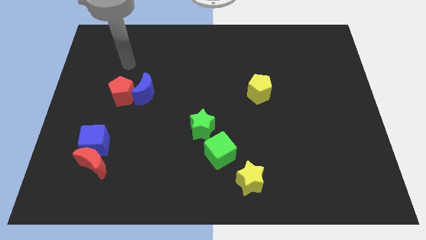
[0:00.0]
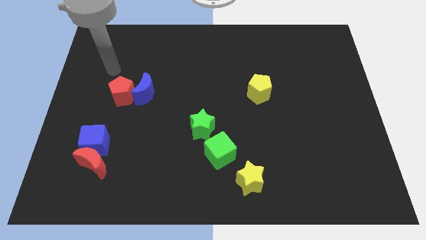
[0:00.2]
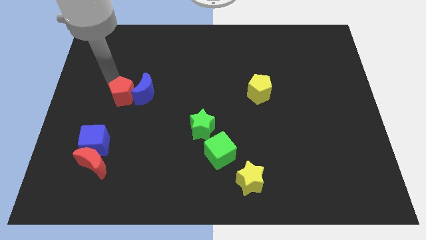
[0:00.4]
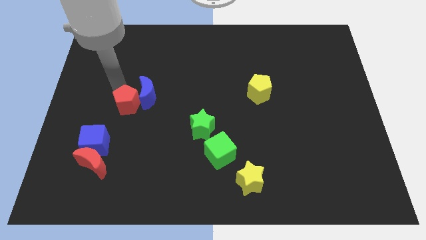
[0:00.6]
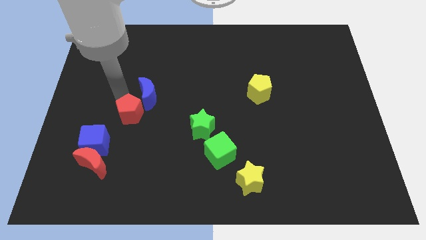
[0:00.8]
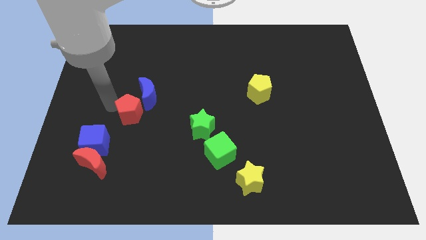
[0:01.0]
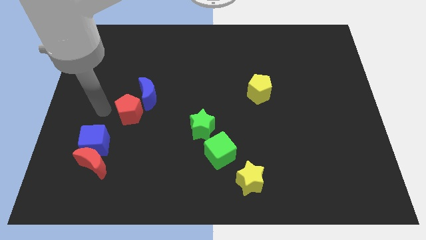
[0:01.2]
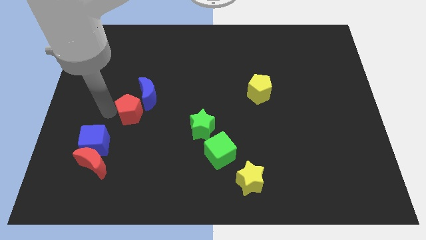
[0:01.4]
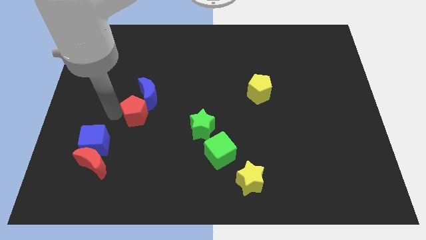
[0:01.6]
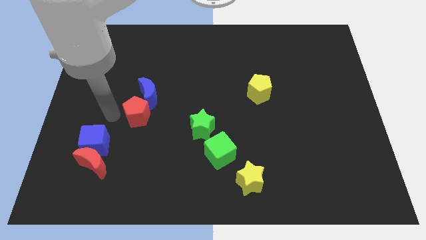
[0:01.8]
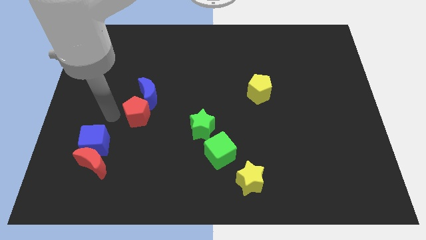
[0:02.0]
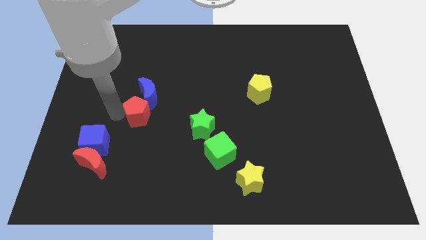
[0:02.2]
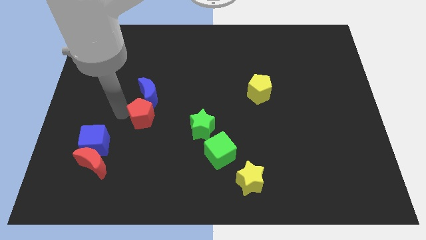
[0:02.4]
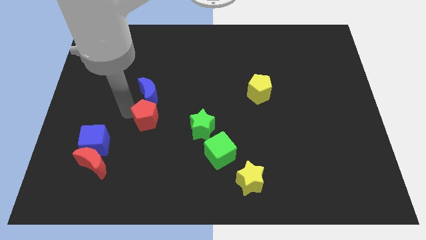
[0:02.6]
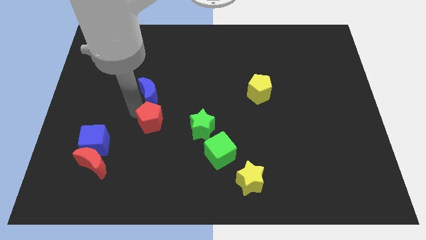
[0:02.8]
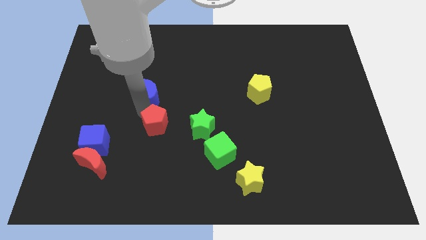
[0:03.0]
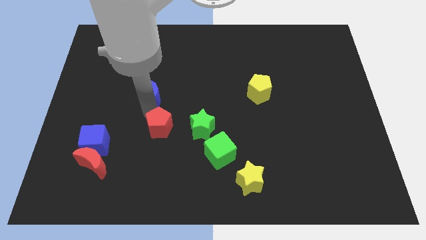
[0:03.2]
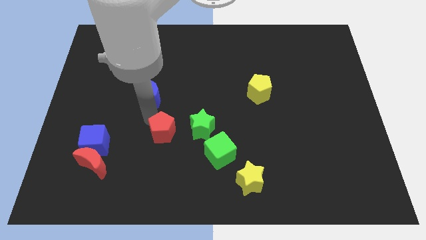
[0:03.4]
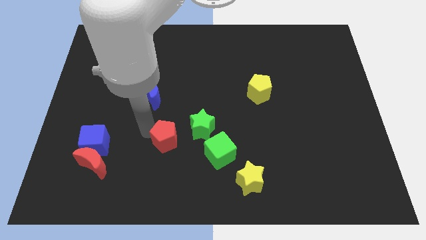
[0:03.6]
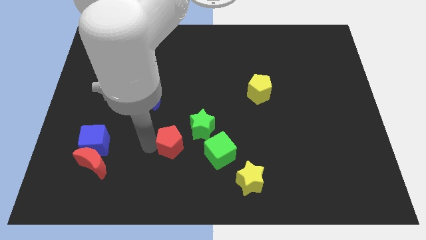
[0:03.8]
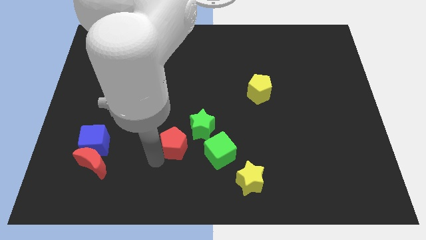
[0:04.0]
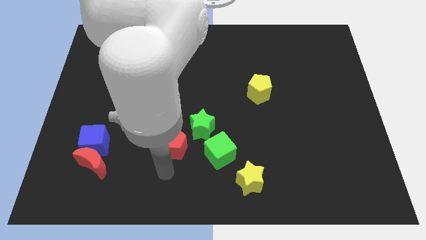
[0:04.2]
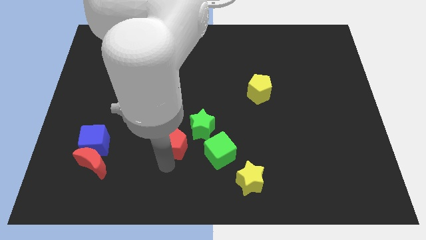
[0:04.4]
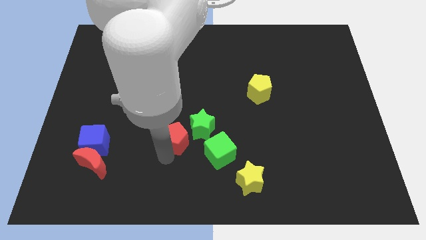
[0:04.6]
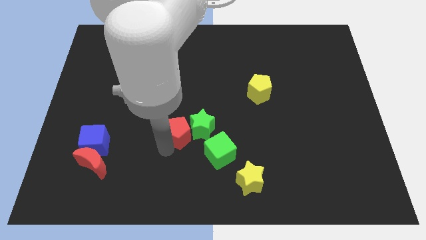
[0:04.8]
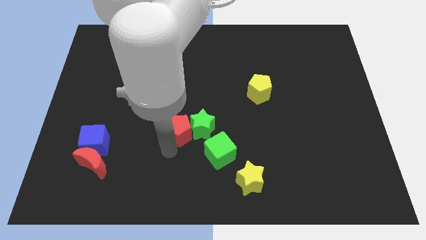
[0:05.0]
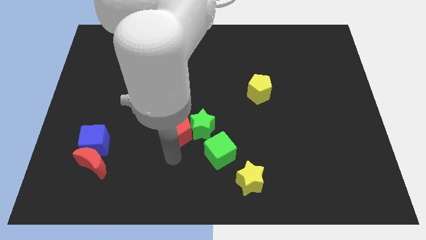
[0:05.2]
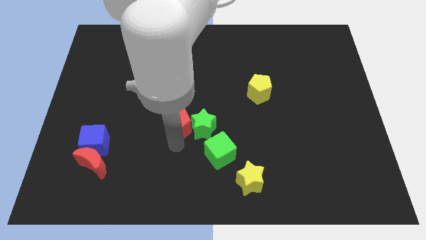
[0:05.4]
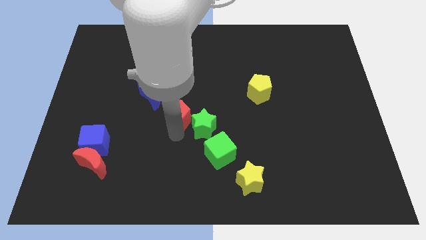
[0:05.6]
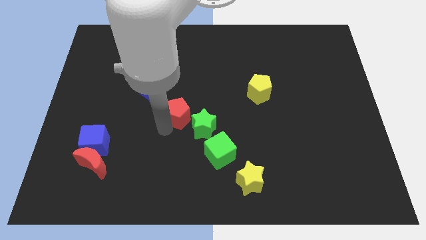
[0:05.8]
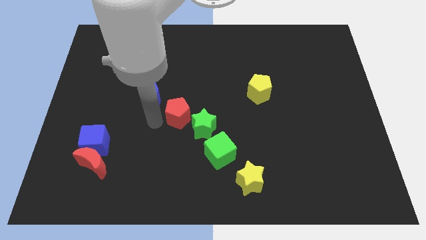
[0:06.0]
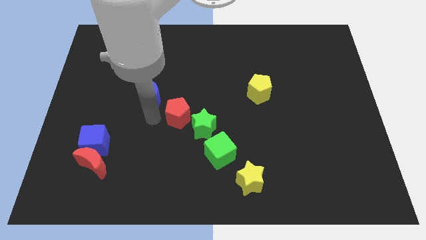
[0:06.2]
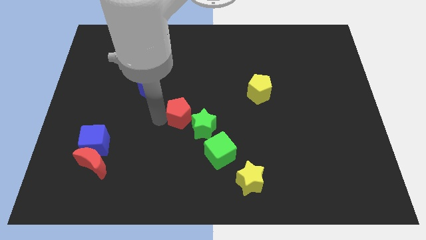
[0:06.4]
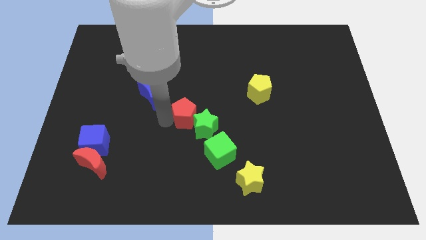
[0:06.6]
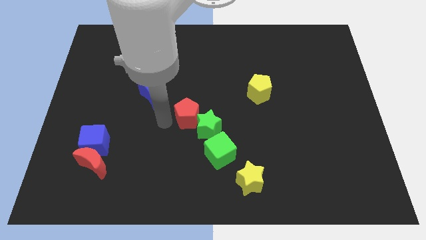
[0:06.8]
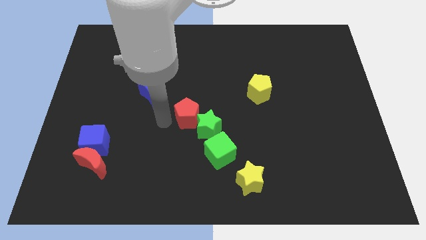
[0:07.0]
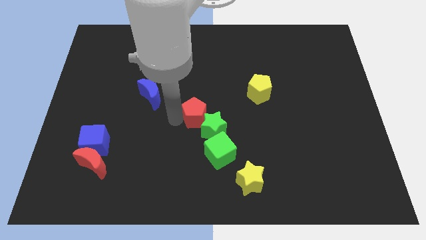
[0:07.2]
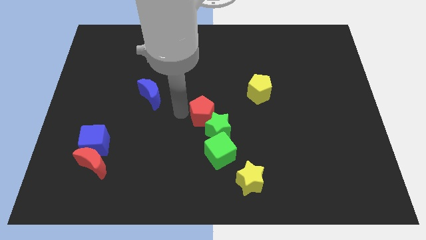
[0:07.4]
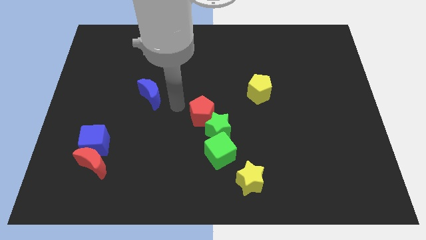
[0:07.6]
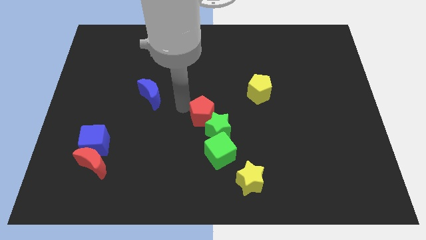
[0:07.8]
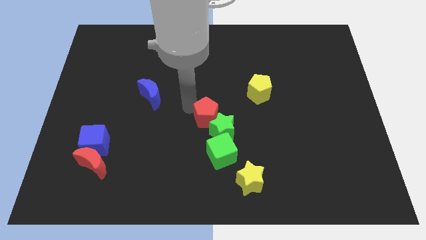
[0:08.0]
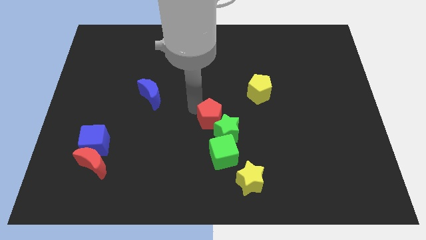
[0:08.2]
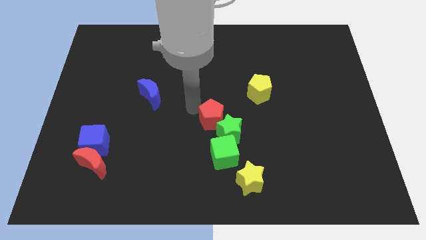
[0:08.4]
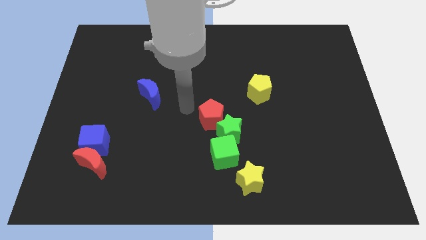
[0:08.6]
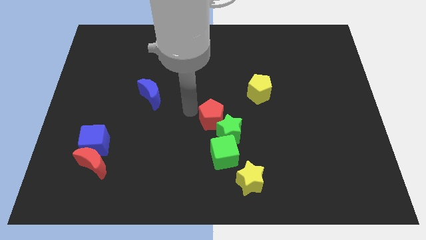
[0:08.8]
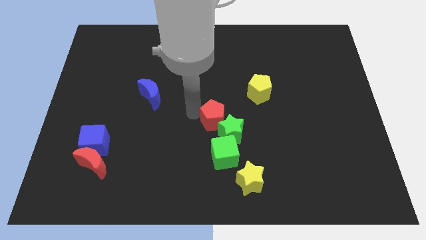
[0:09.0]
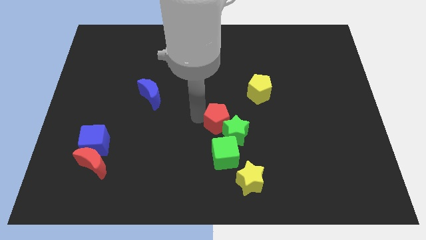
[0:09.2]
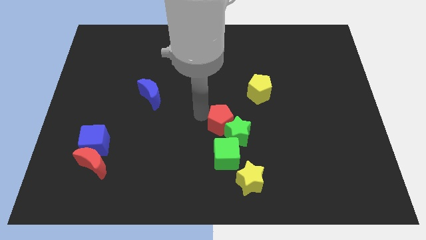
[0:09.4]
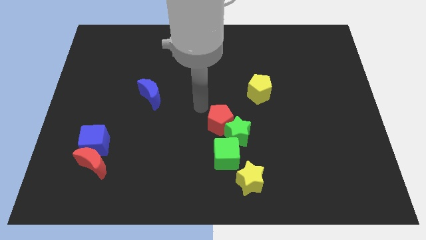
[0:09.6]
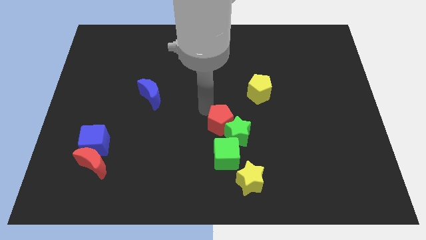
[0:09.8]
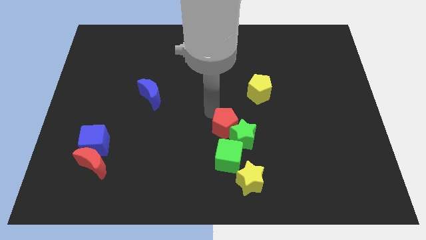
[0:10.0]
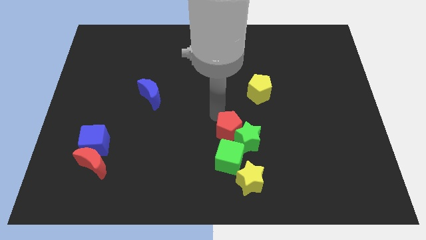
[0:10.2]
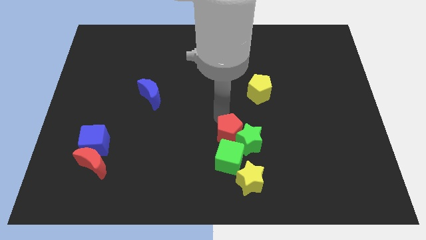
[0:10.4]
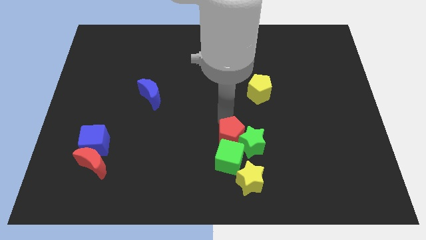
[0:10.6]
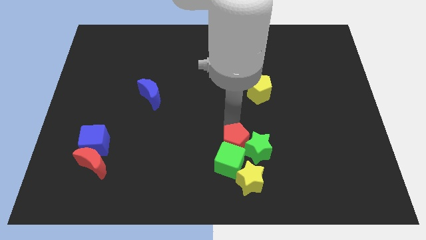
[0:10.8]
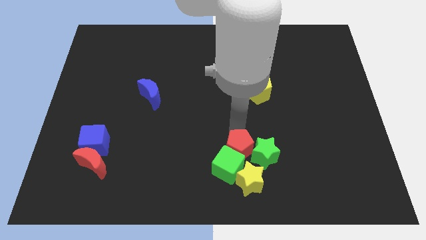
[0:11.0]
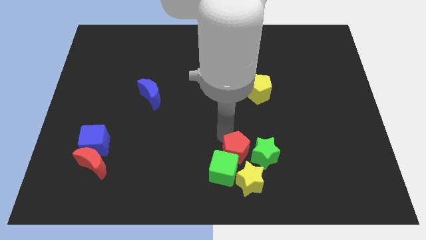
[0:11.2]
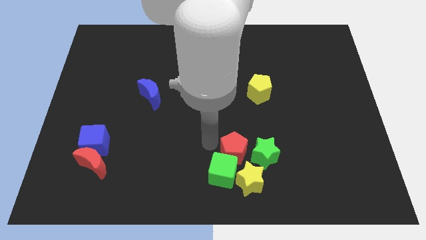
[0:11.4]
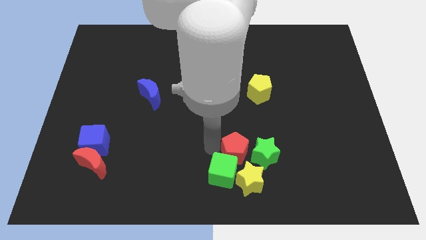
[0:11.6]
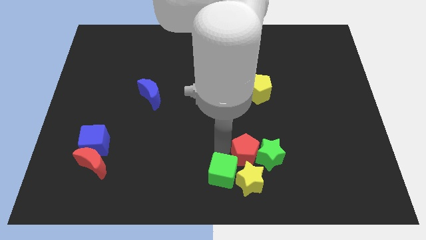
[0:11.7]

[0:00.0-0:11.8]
move the red pentagon to the top right side of the yellow star
